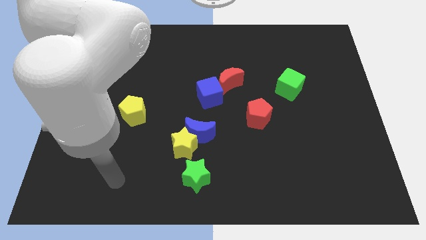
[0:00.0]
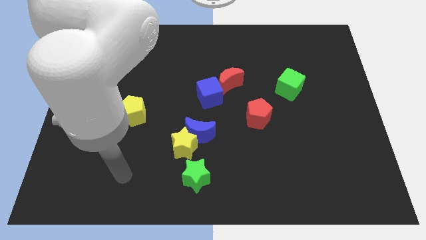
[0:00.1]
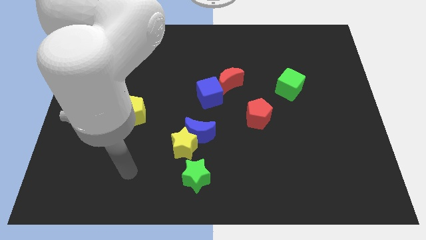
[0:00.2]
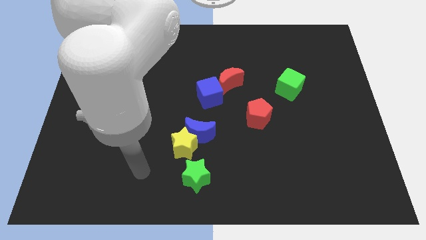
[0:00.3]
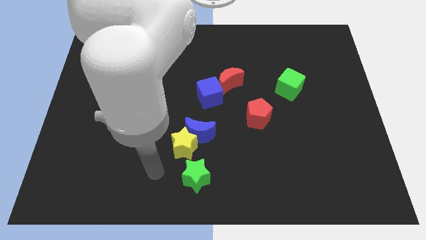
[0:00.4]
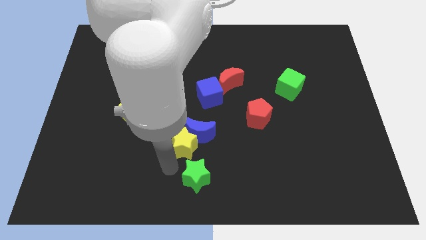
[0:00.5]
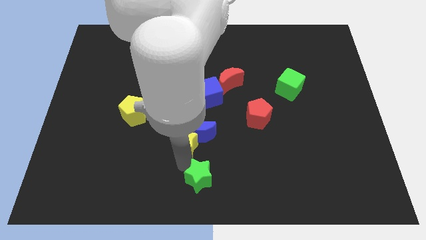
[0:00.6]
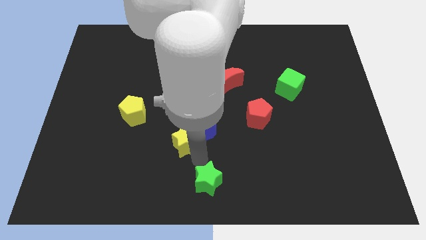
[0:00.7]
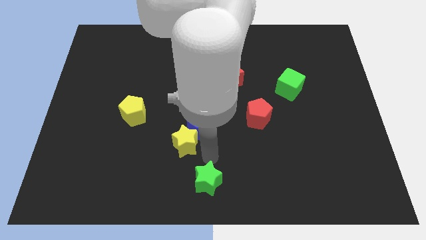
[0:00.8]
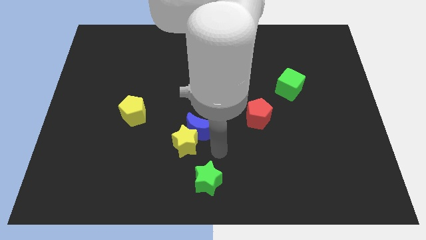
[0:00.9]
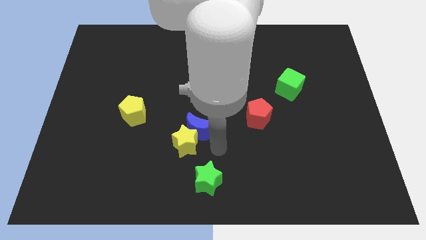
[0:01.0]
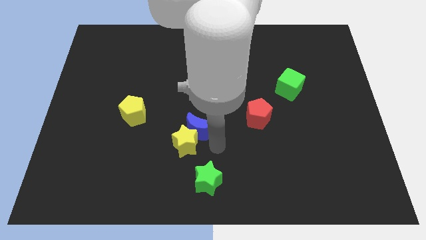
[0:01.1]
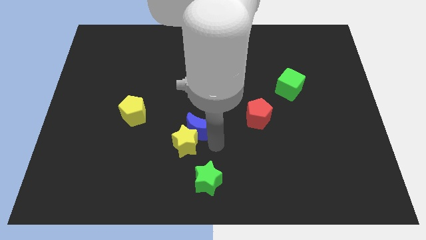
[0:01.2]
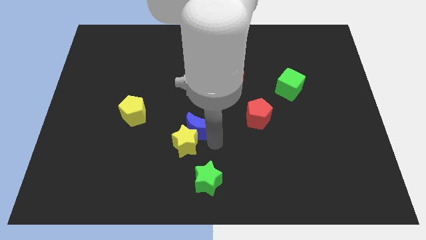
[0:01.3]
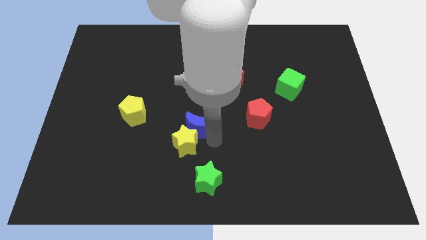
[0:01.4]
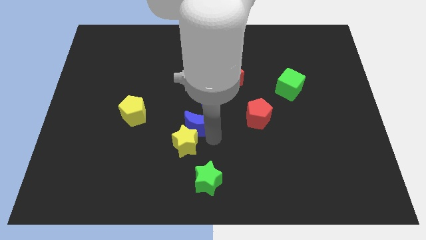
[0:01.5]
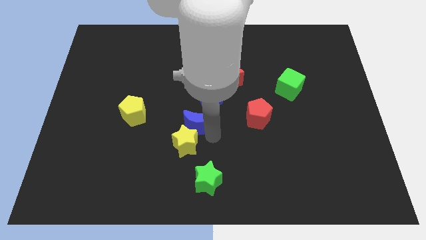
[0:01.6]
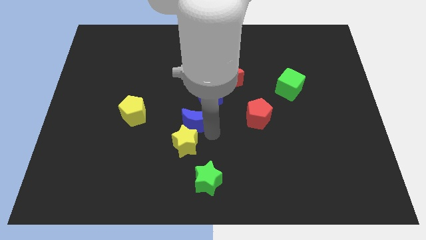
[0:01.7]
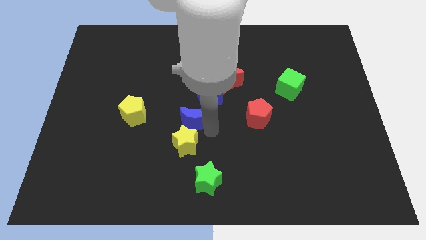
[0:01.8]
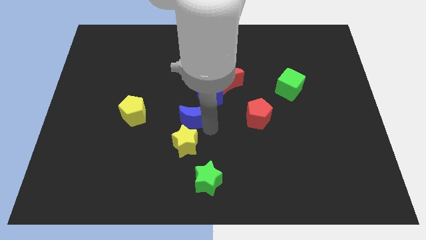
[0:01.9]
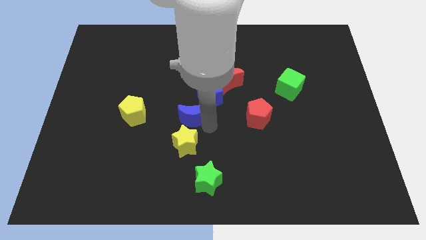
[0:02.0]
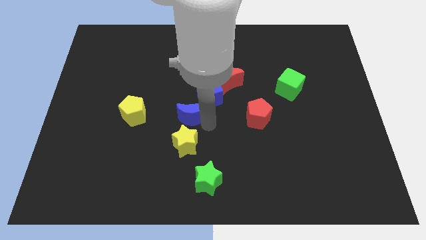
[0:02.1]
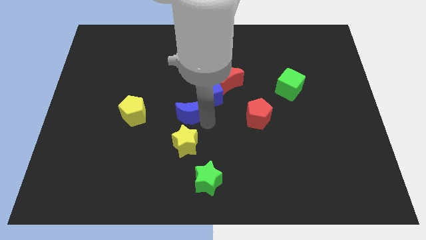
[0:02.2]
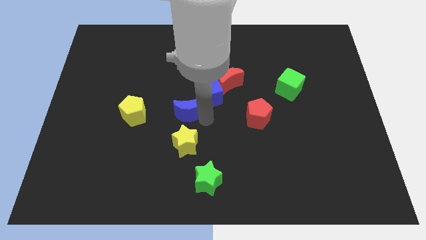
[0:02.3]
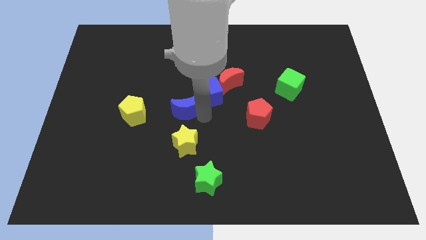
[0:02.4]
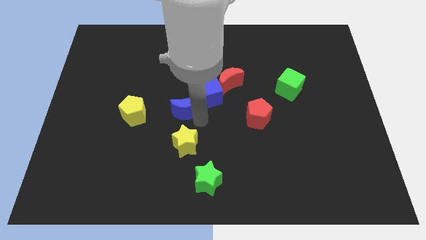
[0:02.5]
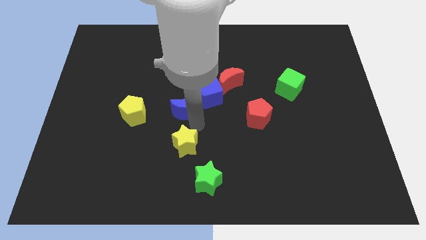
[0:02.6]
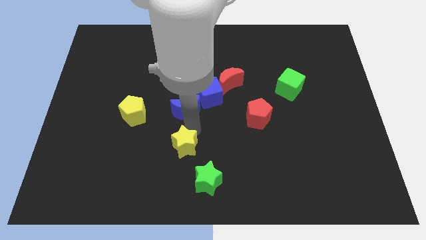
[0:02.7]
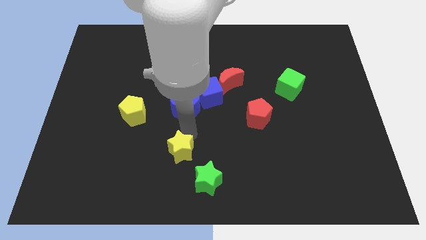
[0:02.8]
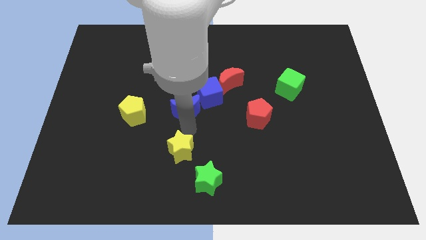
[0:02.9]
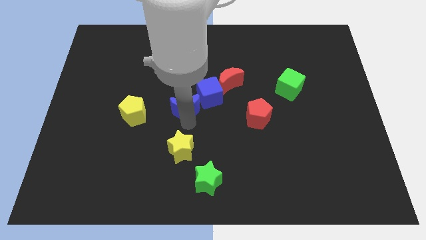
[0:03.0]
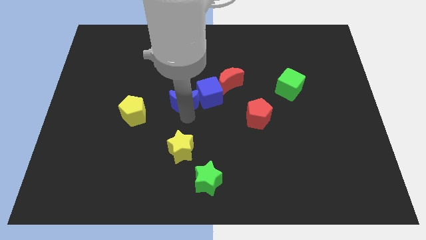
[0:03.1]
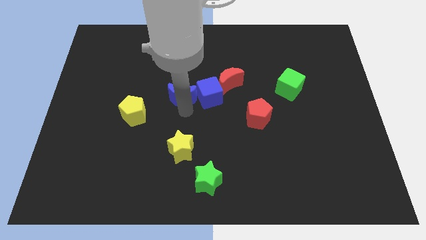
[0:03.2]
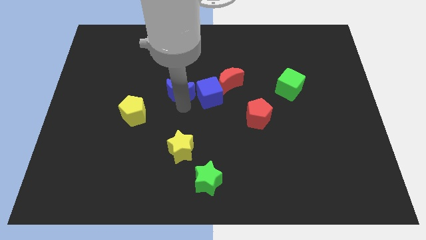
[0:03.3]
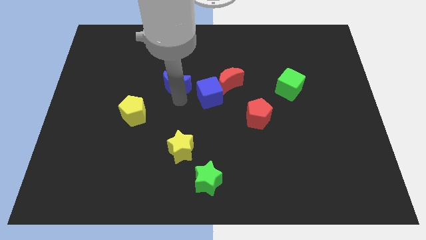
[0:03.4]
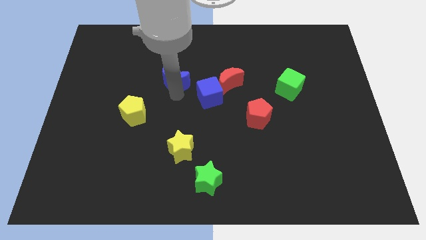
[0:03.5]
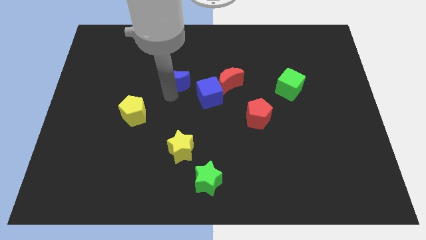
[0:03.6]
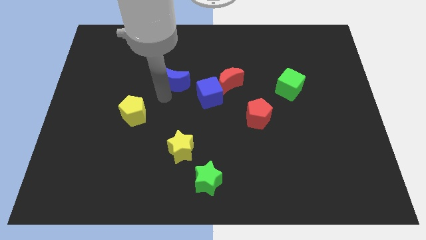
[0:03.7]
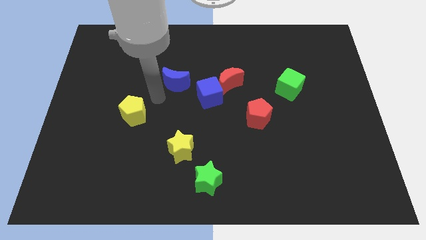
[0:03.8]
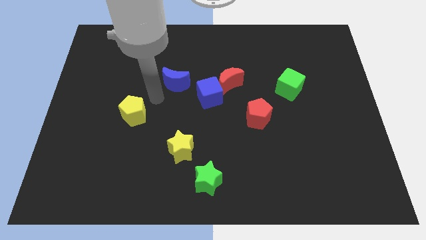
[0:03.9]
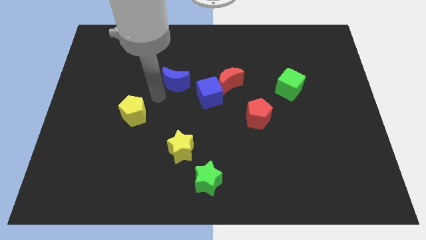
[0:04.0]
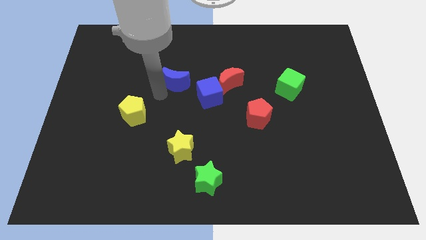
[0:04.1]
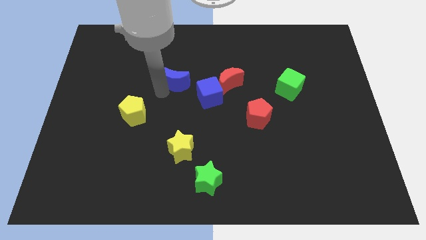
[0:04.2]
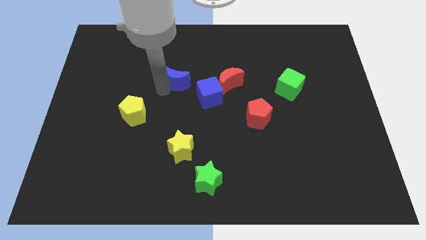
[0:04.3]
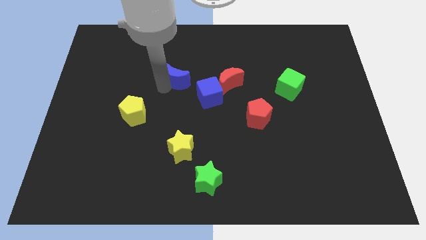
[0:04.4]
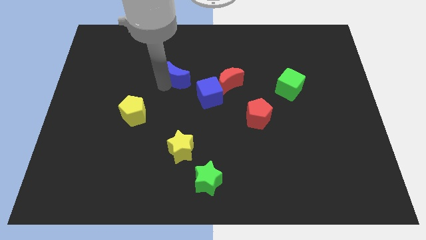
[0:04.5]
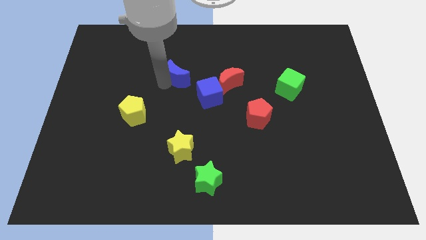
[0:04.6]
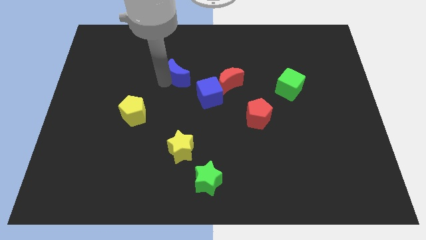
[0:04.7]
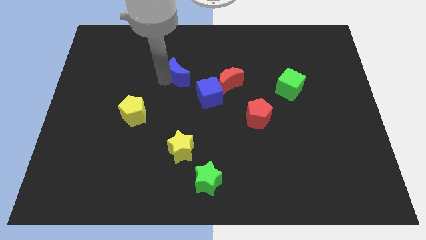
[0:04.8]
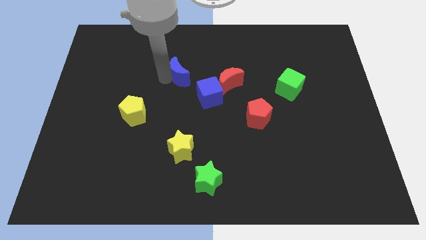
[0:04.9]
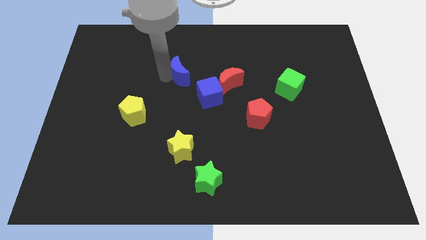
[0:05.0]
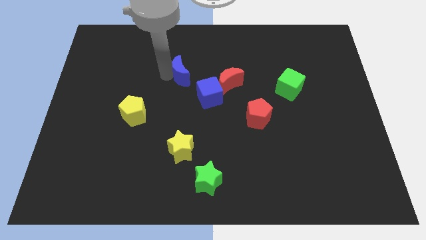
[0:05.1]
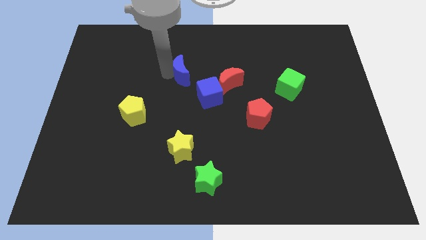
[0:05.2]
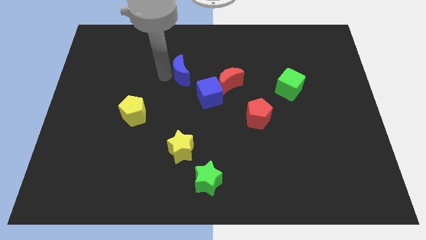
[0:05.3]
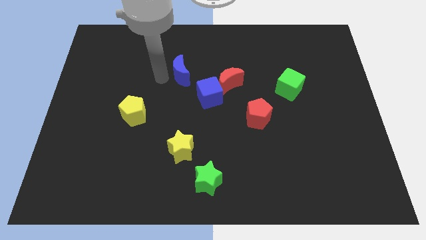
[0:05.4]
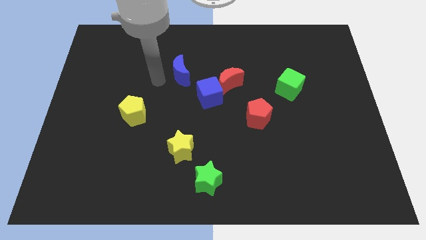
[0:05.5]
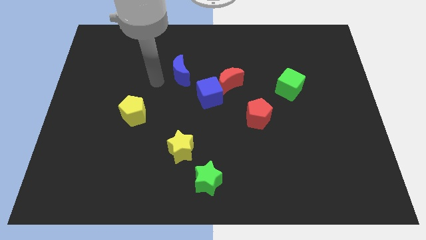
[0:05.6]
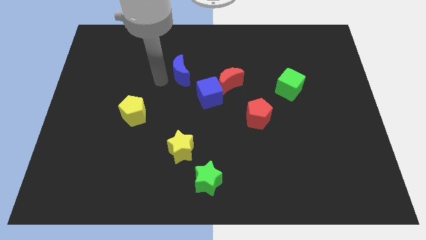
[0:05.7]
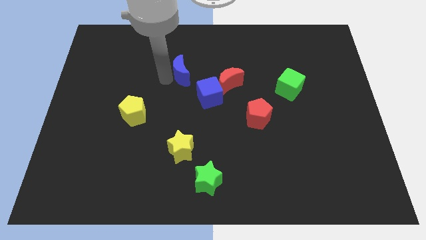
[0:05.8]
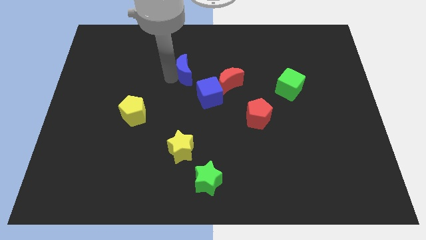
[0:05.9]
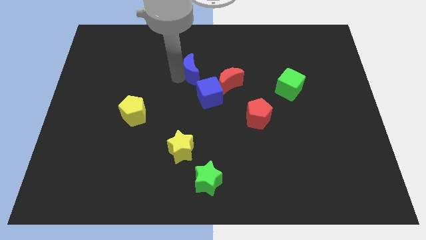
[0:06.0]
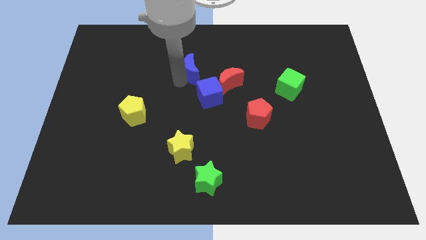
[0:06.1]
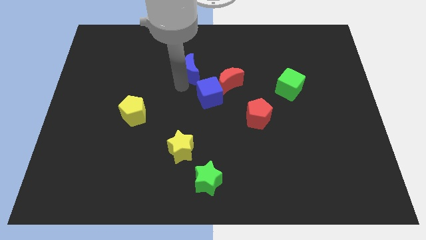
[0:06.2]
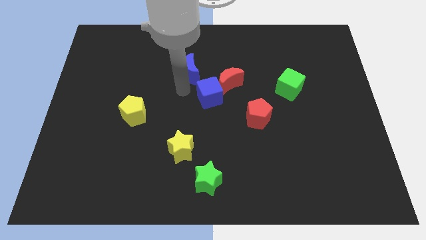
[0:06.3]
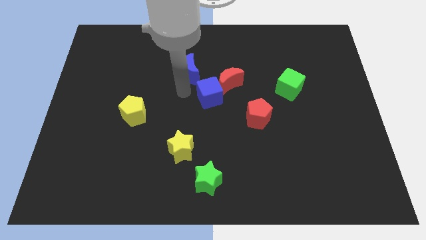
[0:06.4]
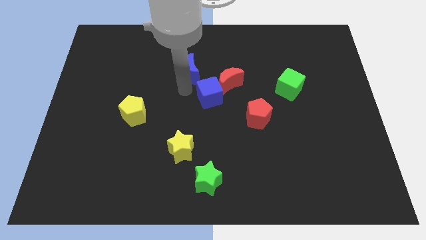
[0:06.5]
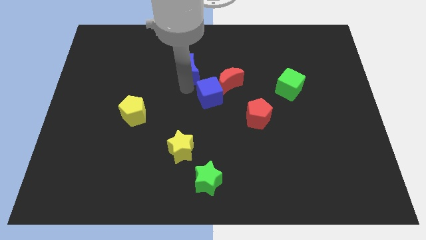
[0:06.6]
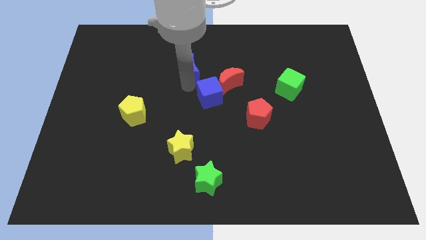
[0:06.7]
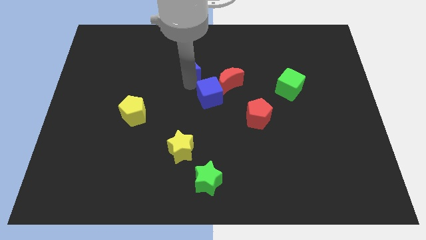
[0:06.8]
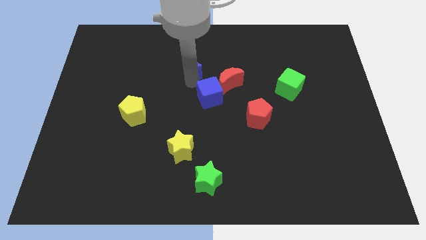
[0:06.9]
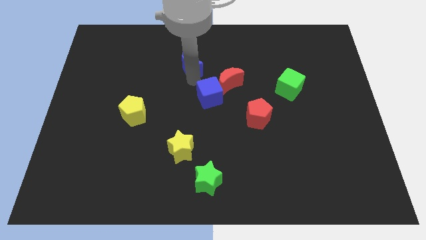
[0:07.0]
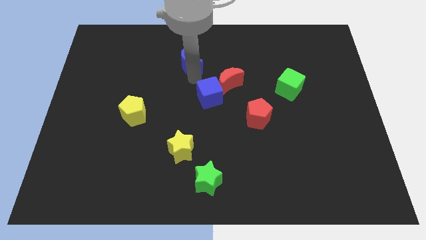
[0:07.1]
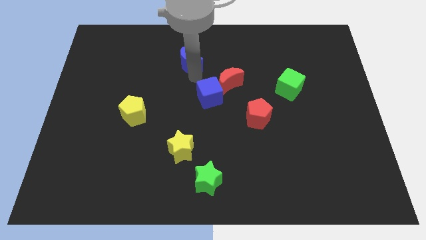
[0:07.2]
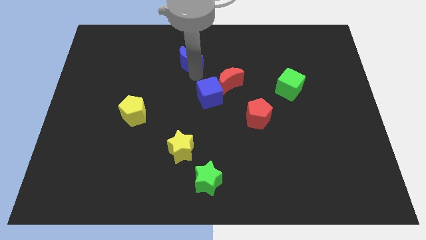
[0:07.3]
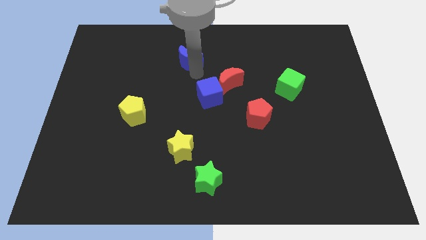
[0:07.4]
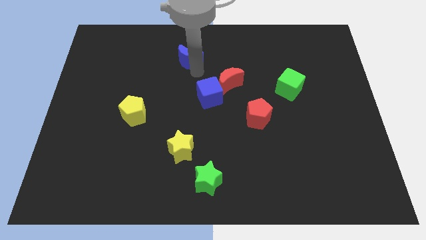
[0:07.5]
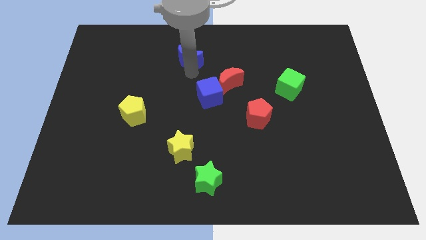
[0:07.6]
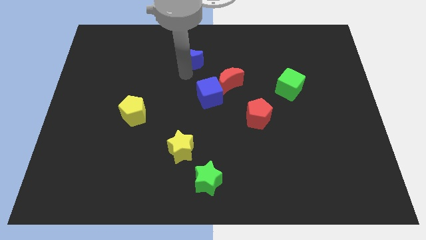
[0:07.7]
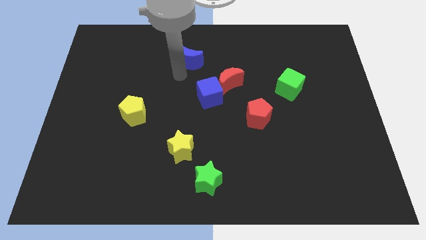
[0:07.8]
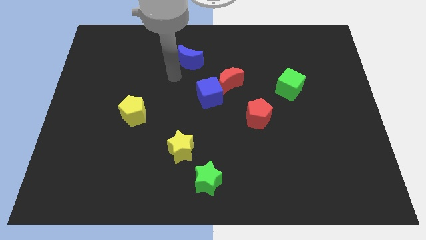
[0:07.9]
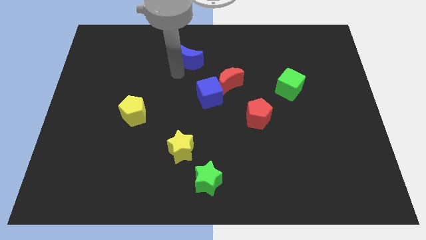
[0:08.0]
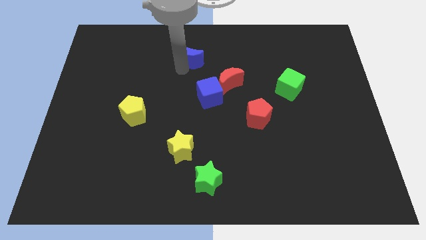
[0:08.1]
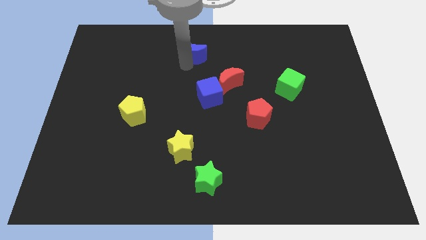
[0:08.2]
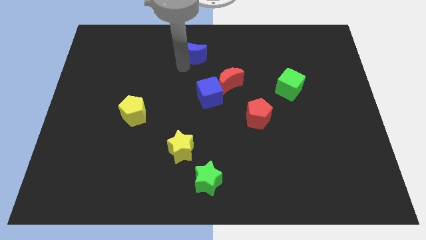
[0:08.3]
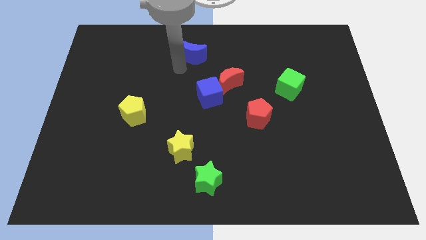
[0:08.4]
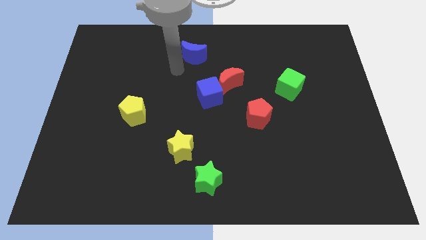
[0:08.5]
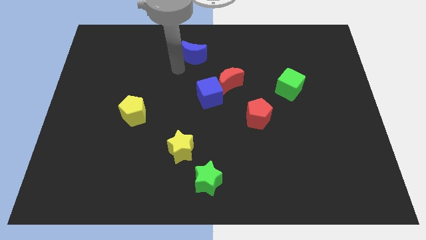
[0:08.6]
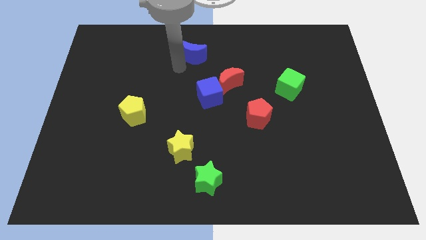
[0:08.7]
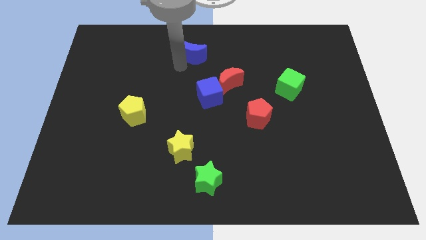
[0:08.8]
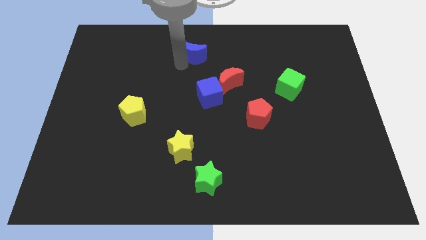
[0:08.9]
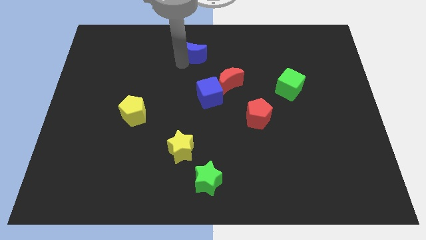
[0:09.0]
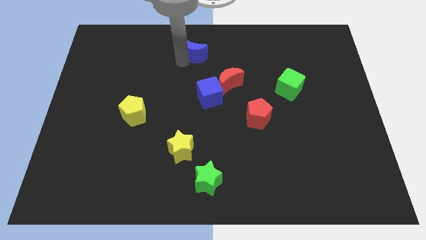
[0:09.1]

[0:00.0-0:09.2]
slide the blue moon to the top
